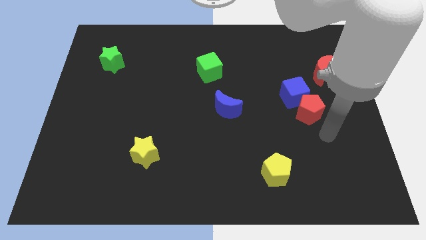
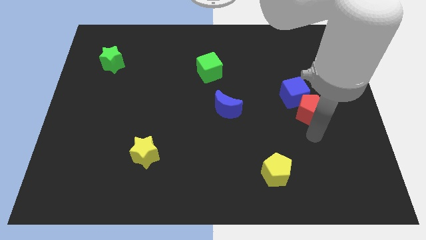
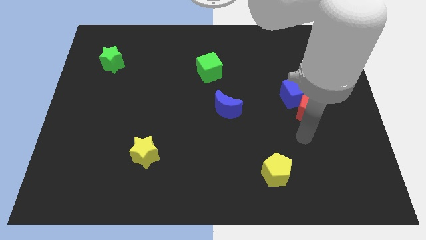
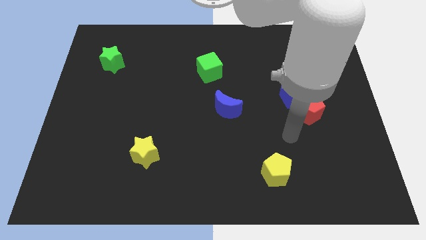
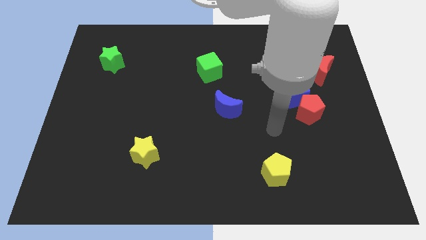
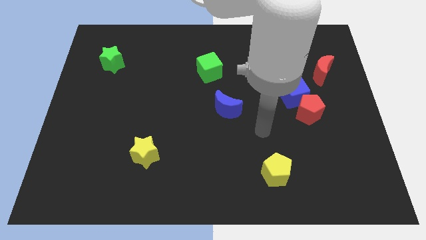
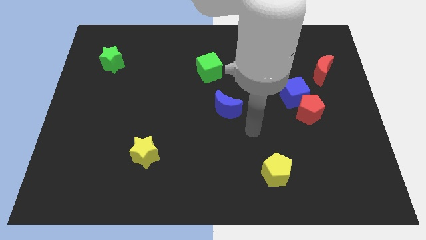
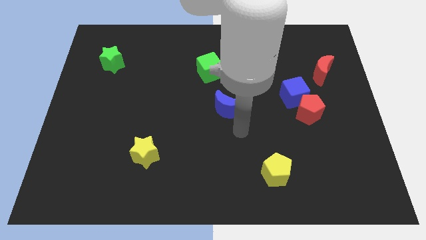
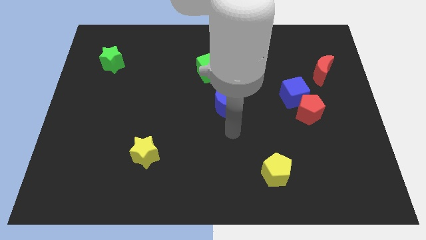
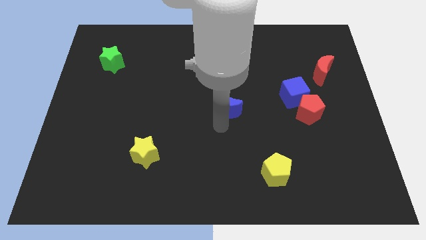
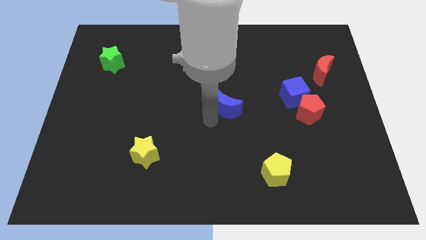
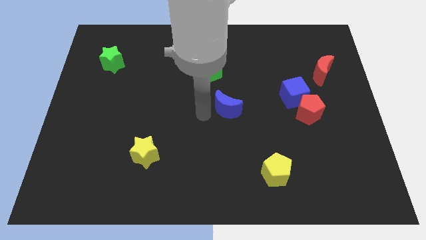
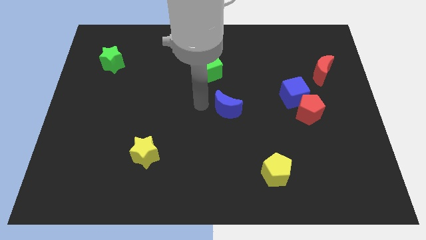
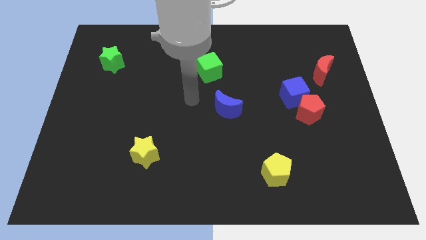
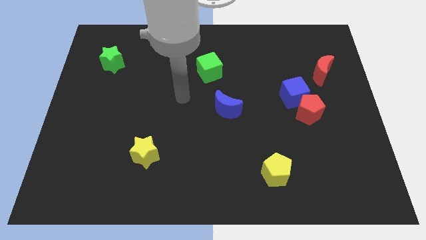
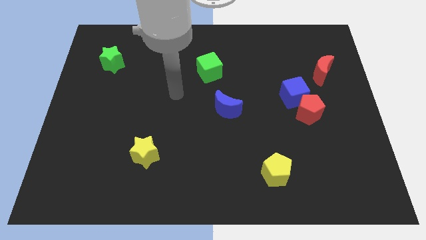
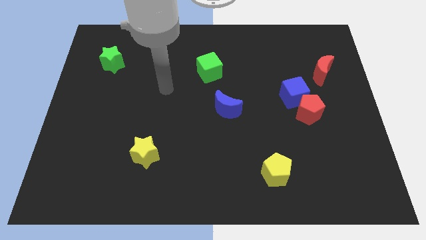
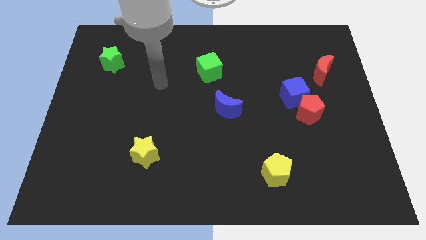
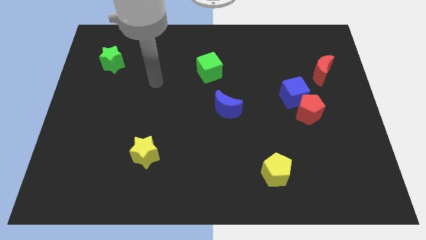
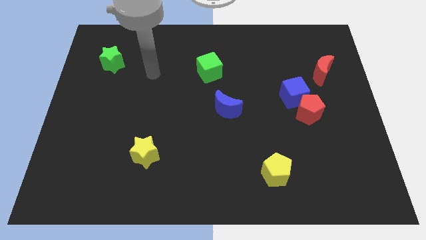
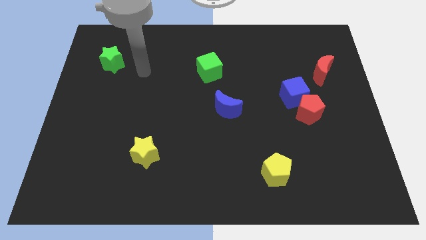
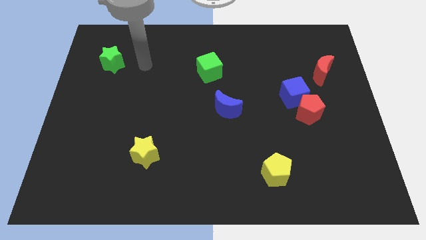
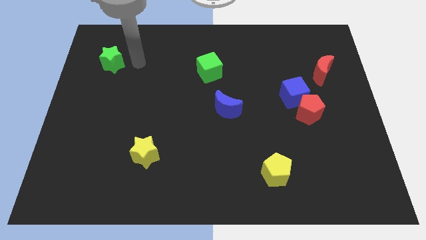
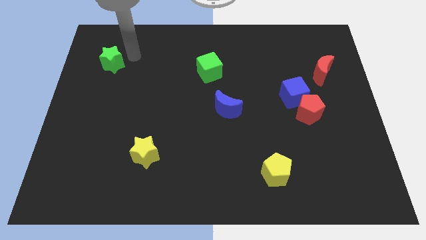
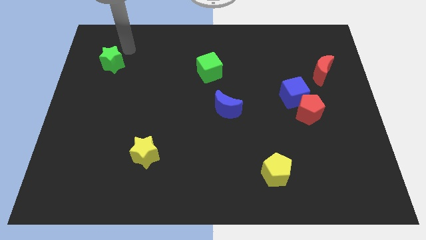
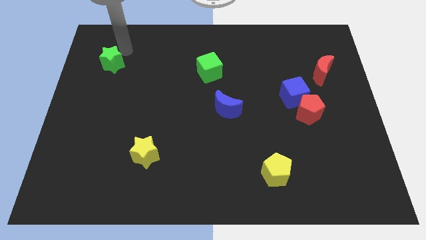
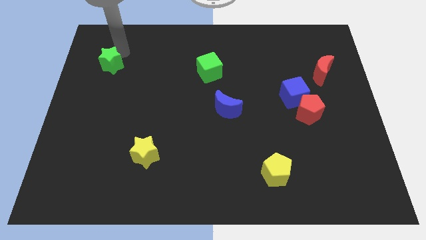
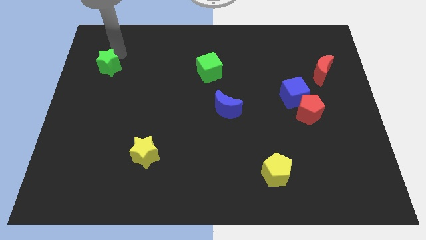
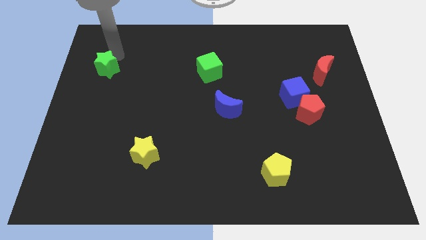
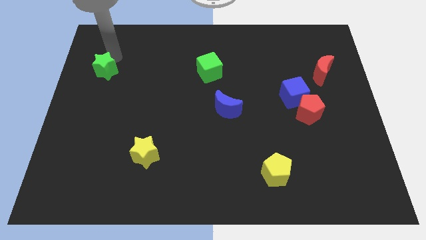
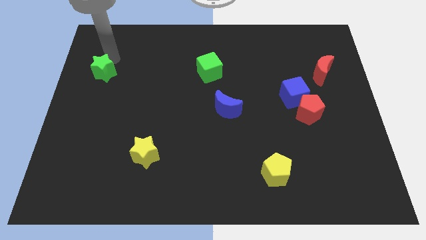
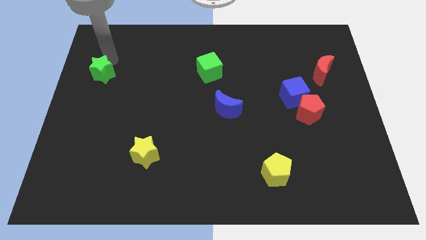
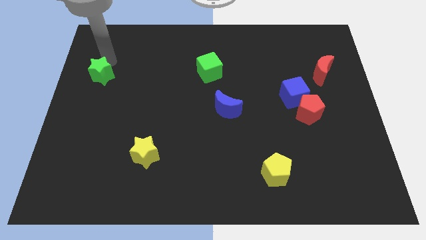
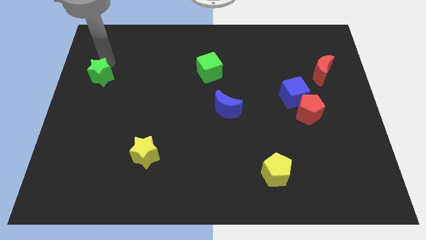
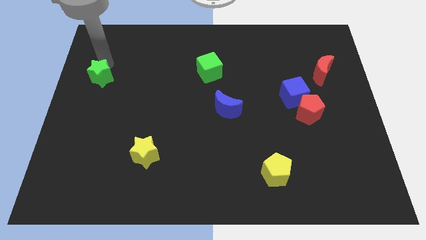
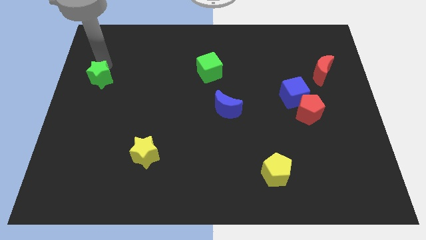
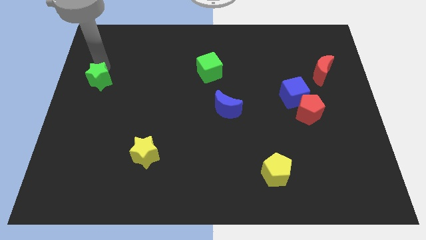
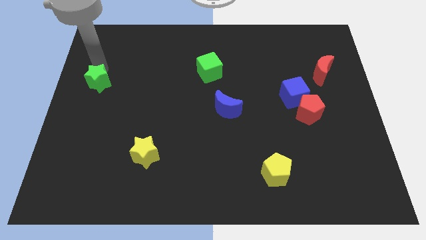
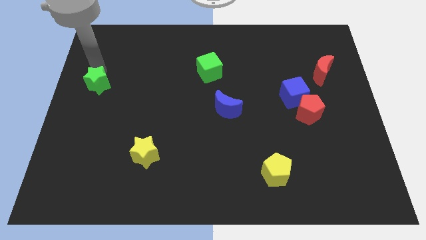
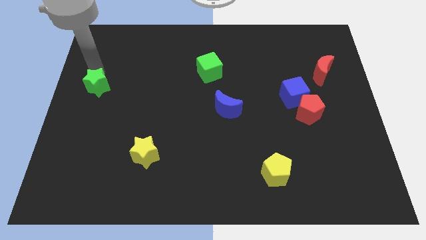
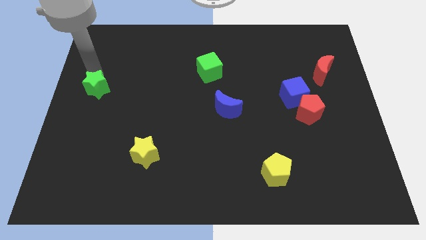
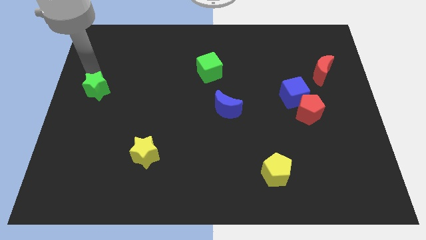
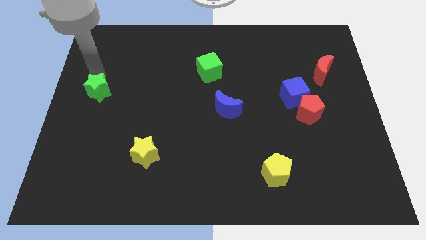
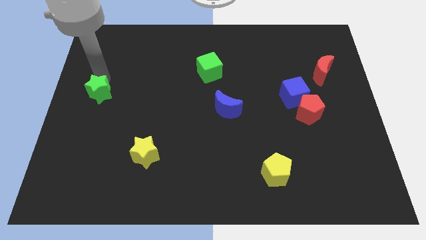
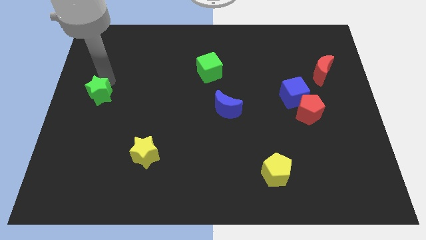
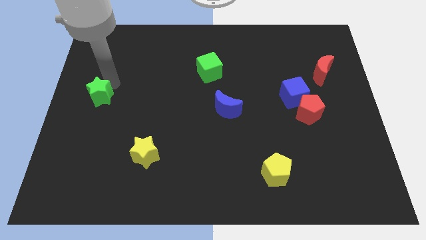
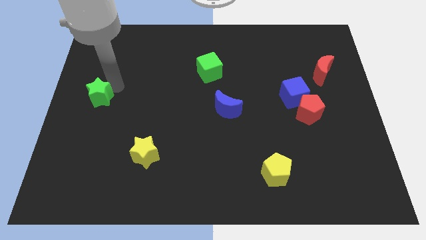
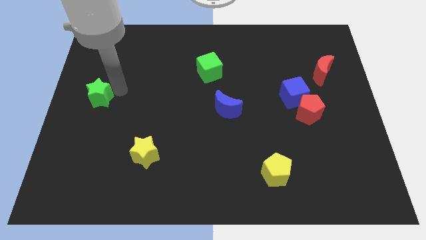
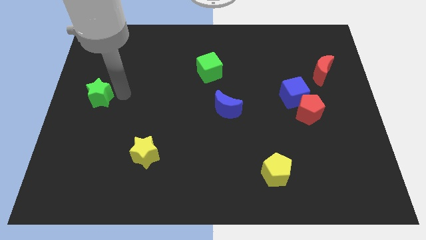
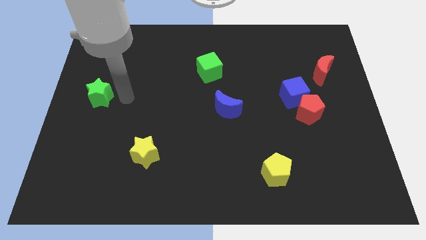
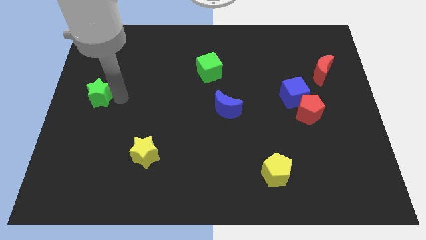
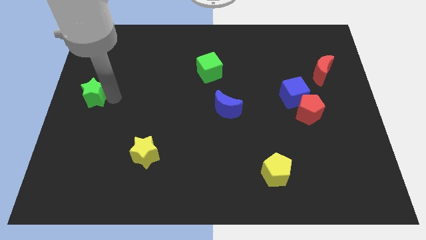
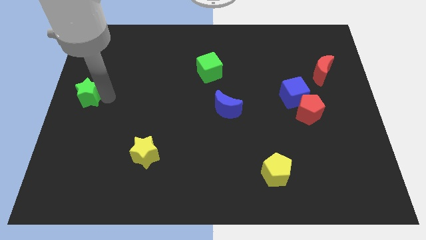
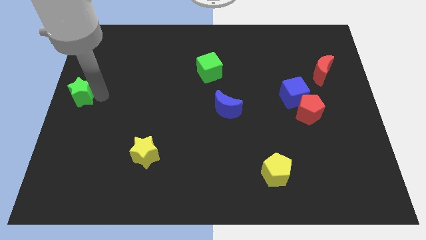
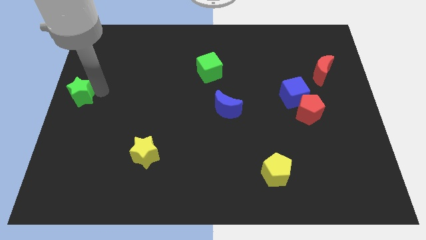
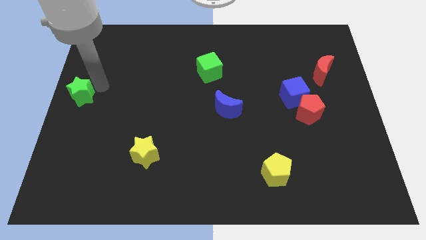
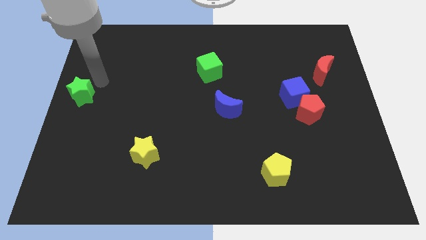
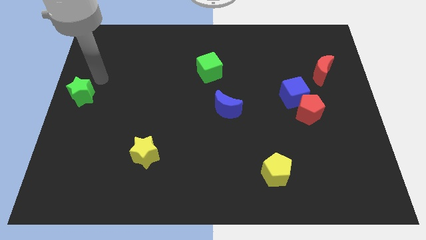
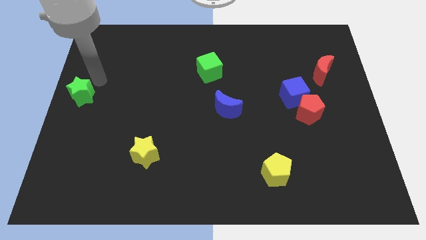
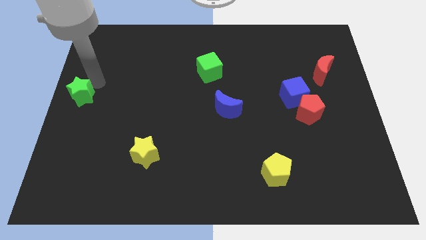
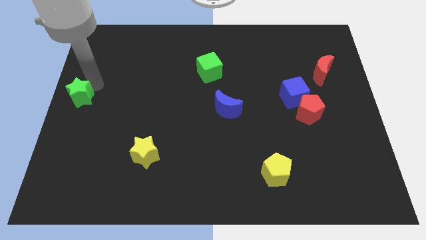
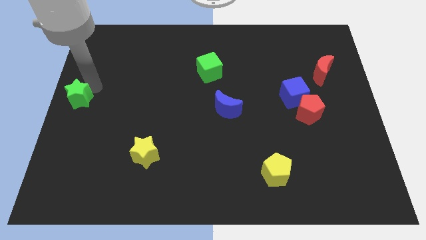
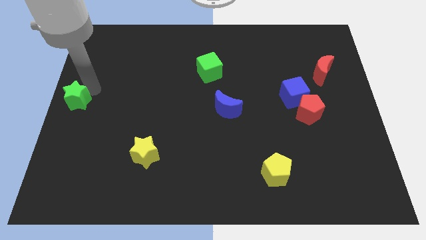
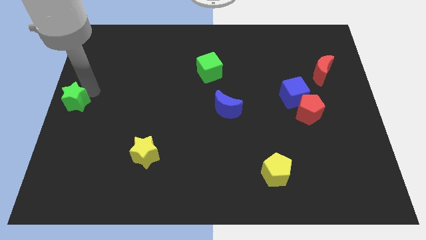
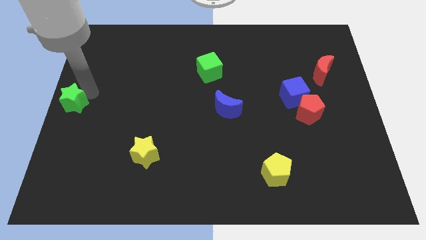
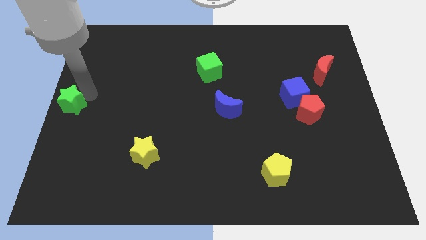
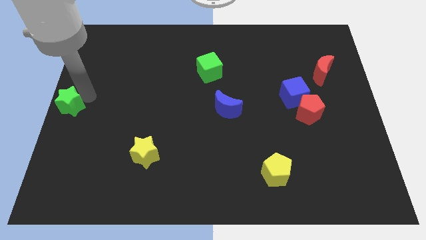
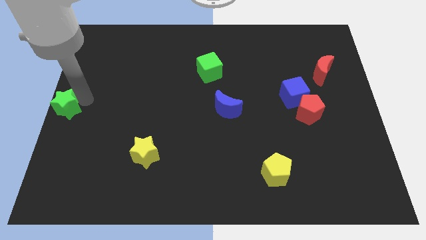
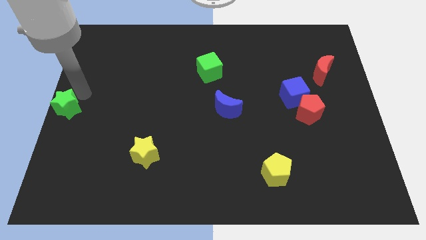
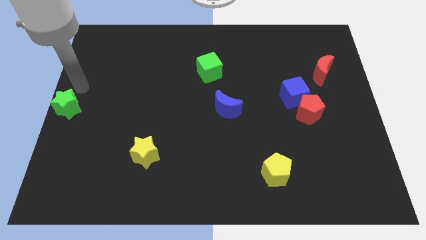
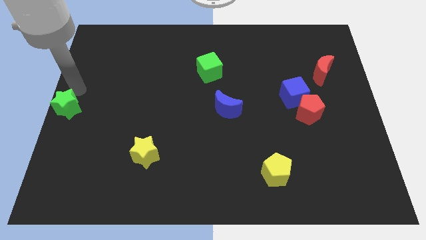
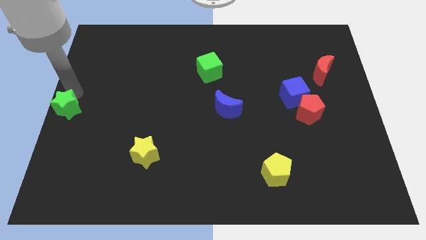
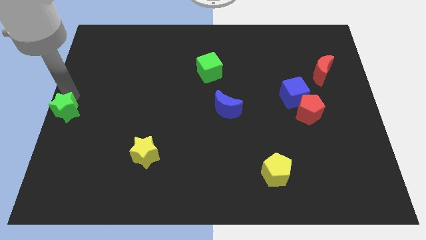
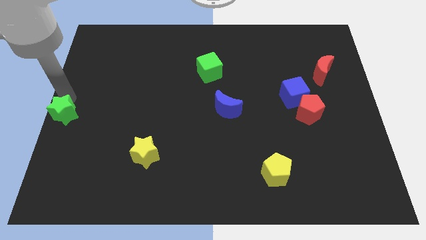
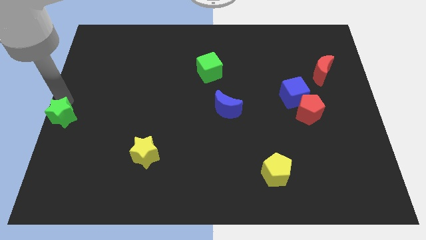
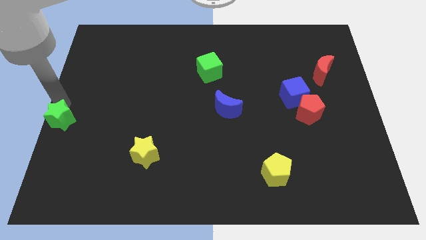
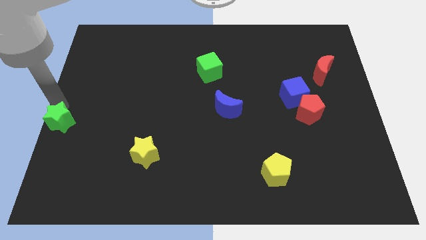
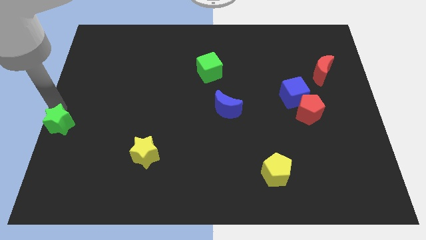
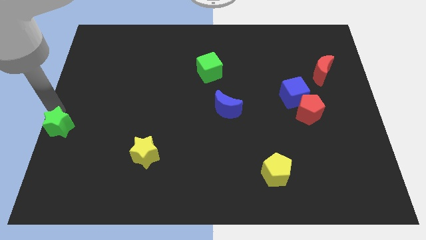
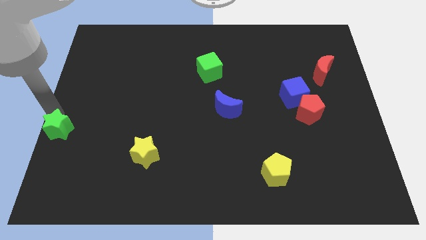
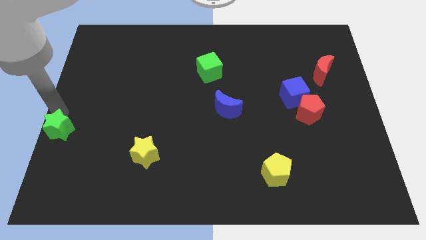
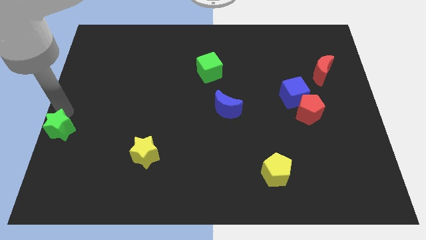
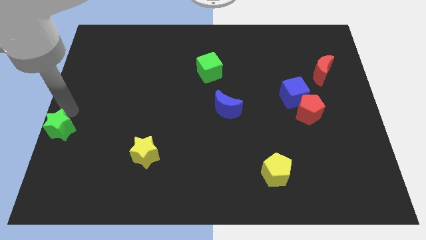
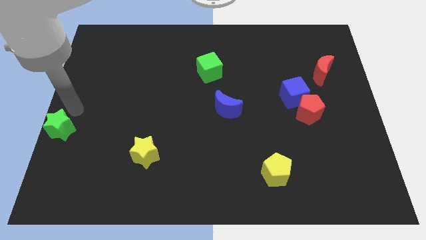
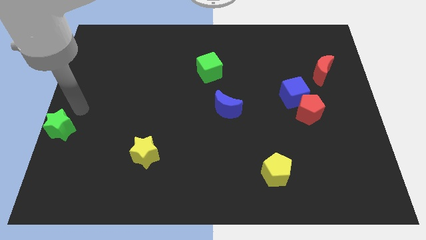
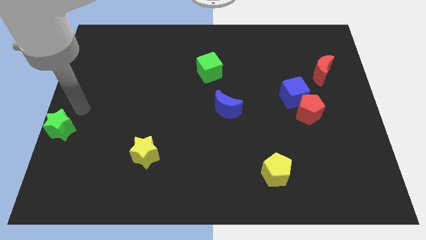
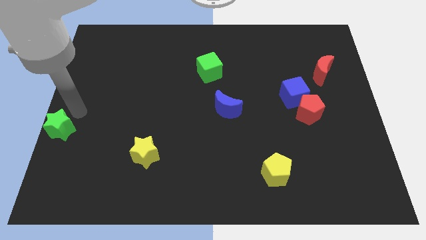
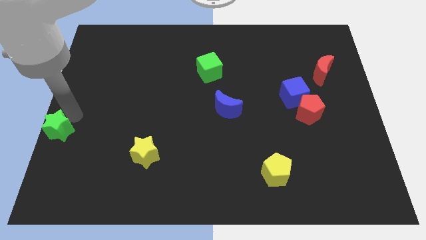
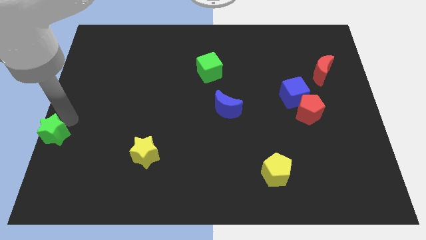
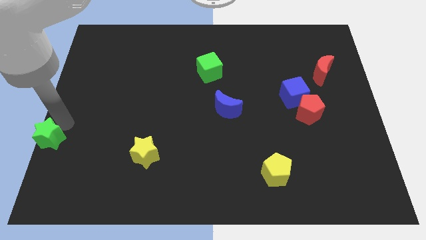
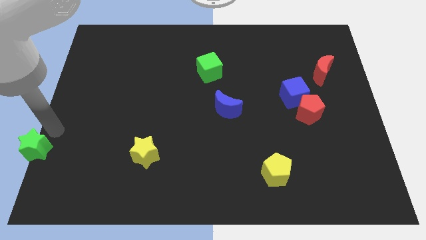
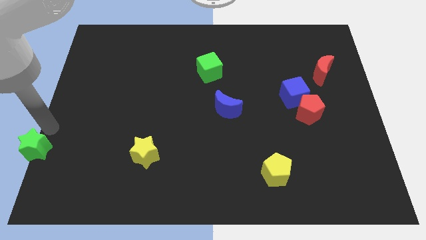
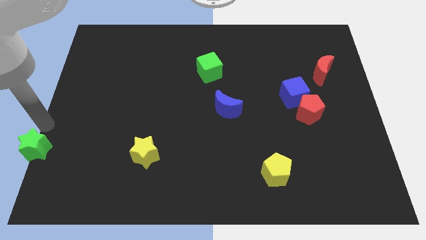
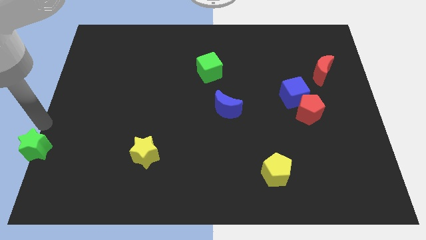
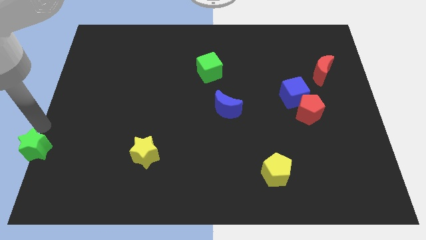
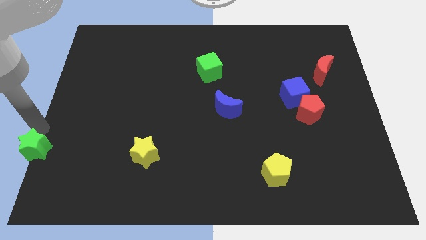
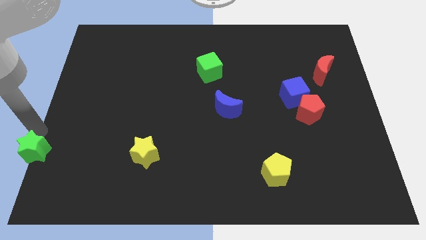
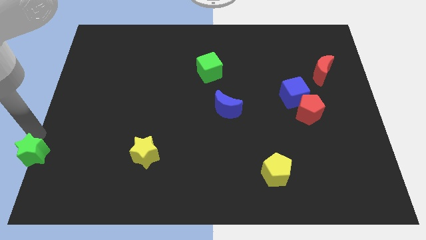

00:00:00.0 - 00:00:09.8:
move the green star to the lower left corner
